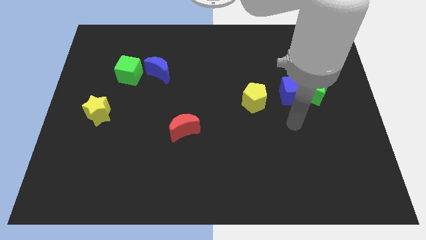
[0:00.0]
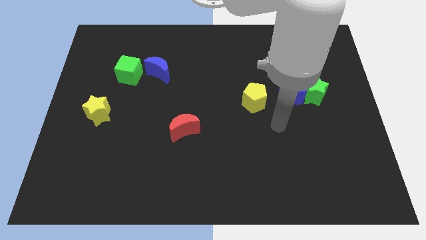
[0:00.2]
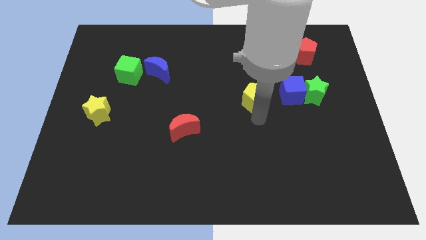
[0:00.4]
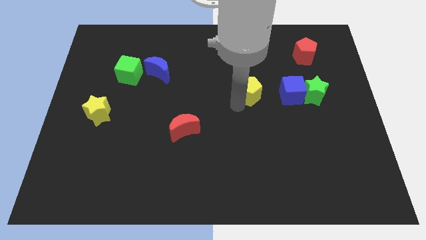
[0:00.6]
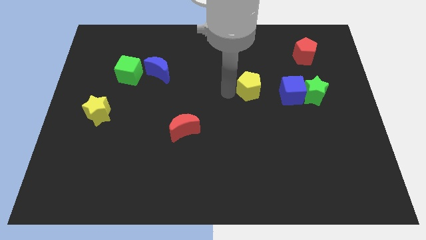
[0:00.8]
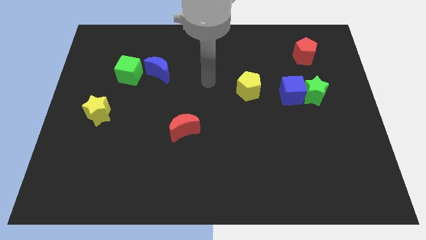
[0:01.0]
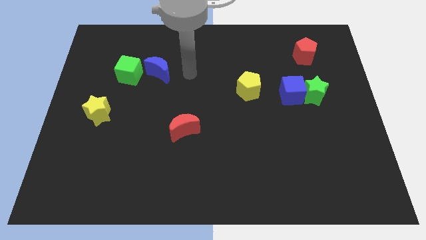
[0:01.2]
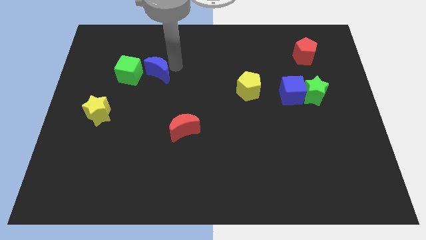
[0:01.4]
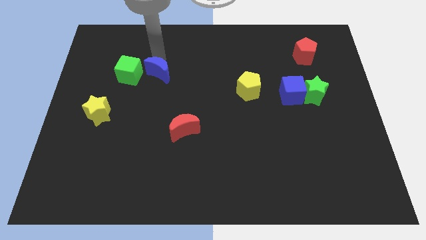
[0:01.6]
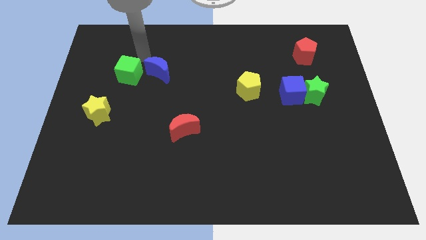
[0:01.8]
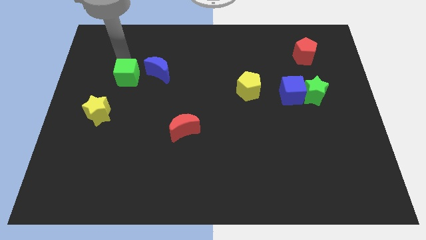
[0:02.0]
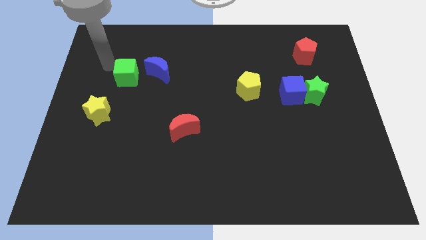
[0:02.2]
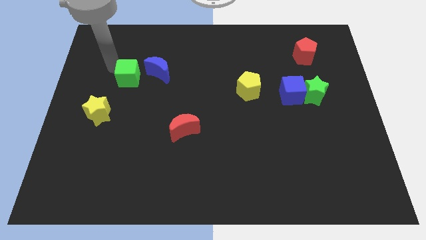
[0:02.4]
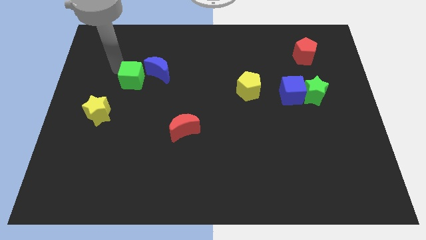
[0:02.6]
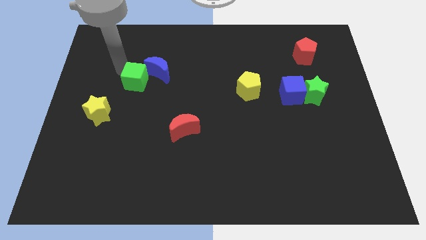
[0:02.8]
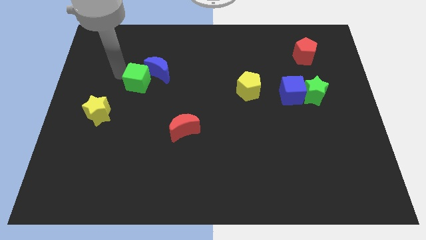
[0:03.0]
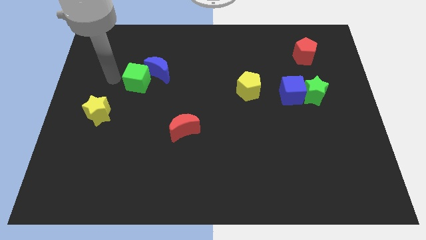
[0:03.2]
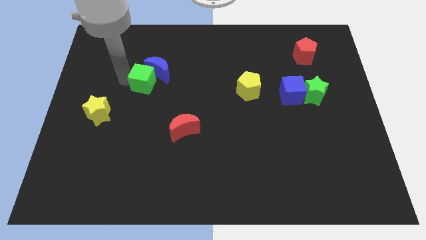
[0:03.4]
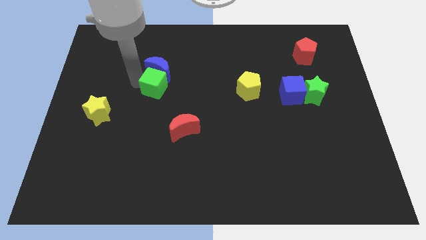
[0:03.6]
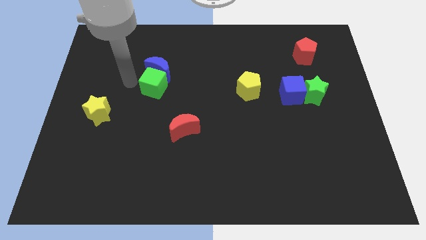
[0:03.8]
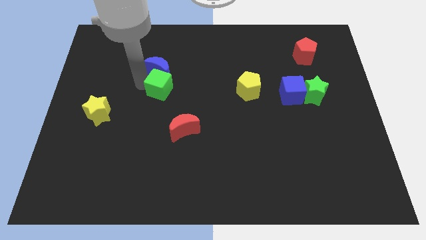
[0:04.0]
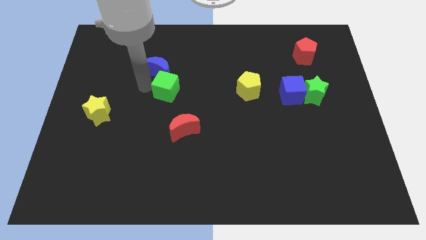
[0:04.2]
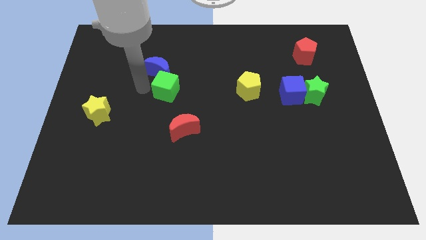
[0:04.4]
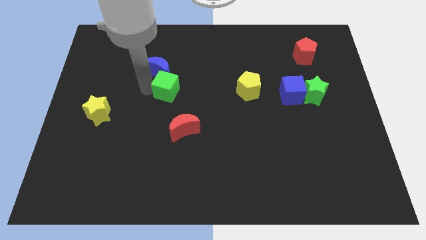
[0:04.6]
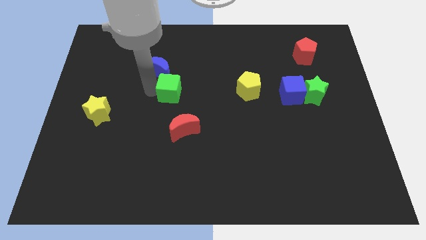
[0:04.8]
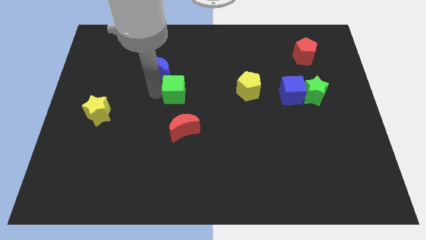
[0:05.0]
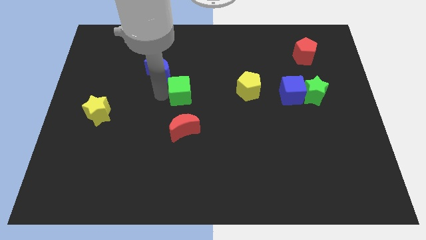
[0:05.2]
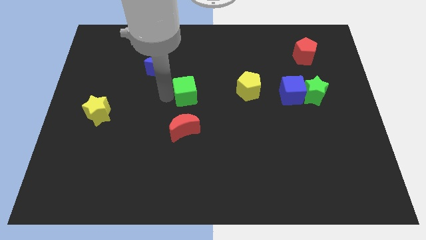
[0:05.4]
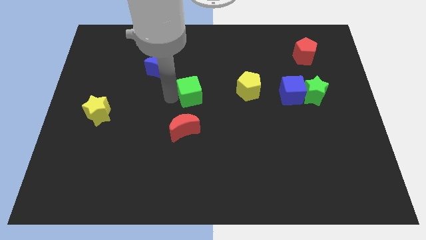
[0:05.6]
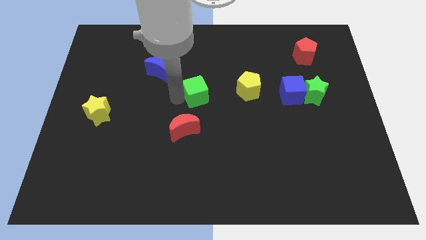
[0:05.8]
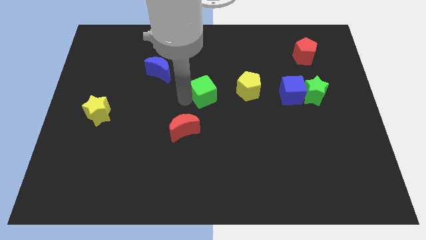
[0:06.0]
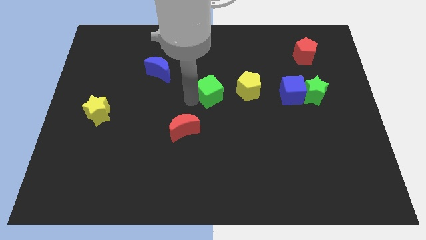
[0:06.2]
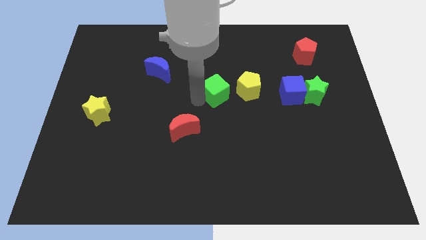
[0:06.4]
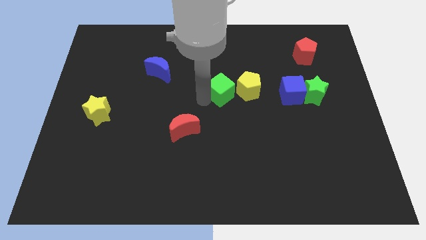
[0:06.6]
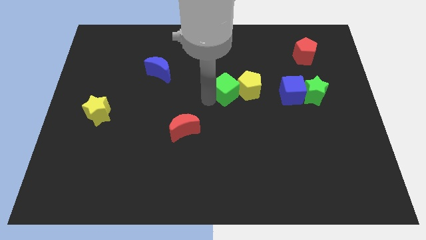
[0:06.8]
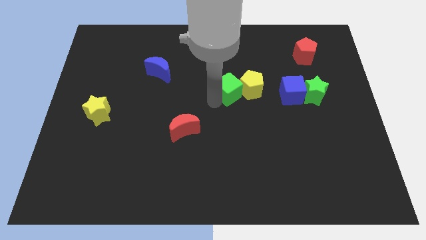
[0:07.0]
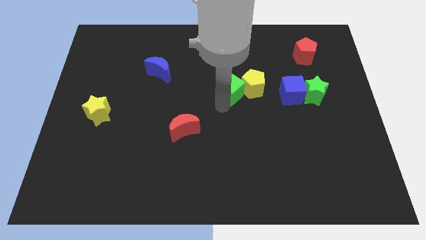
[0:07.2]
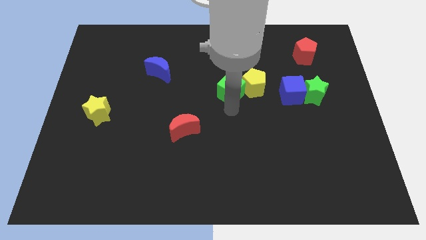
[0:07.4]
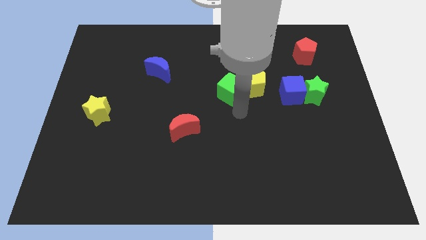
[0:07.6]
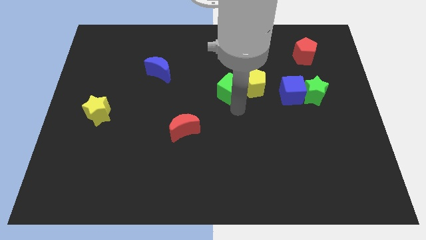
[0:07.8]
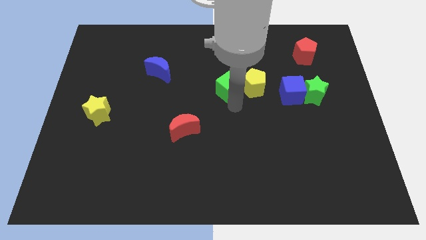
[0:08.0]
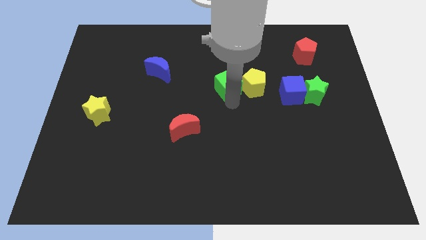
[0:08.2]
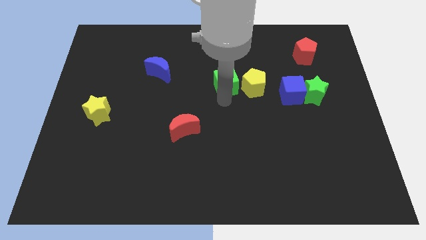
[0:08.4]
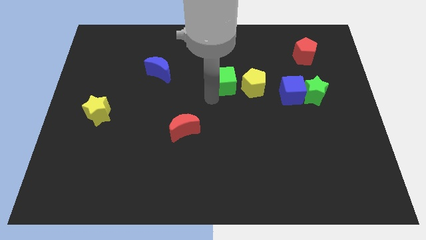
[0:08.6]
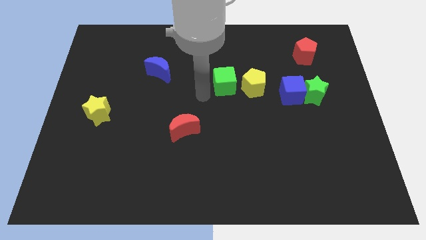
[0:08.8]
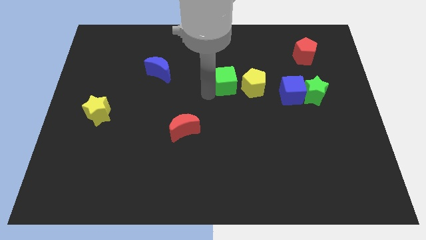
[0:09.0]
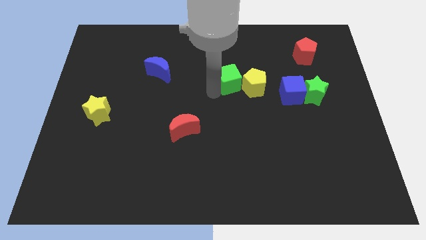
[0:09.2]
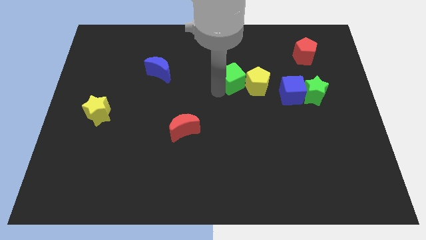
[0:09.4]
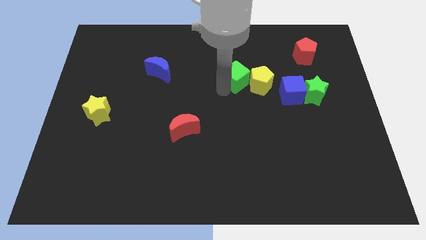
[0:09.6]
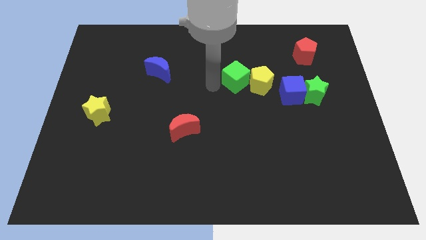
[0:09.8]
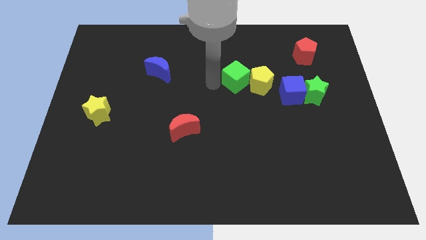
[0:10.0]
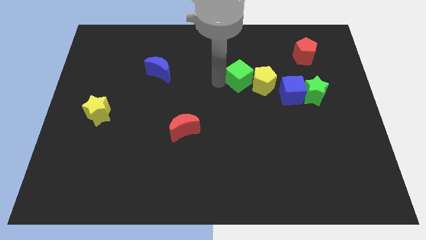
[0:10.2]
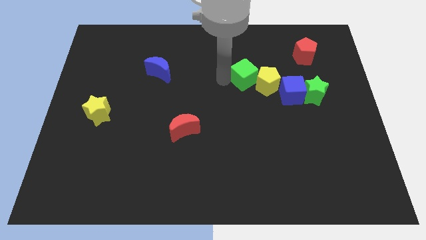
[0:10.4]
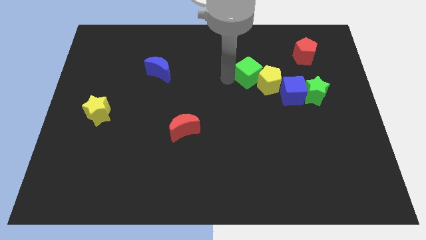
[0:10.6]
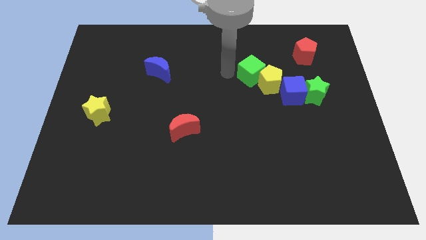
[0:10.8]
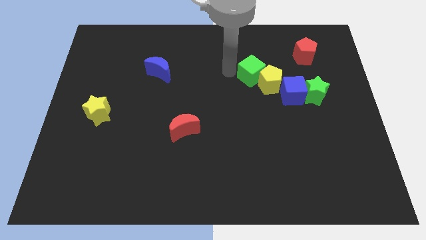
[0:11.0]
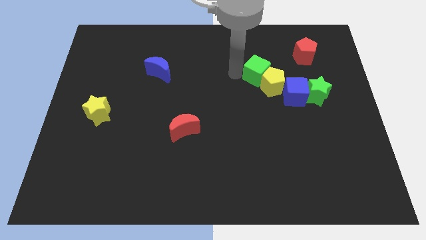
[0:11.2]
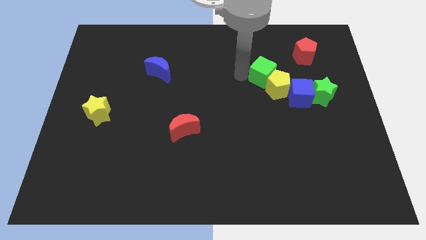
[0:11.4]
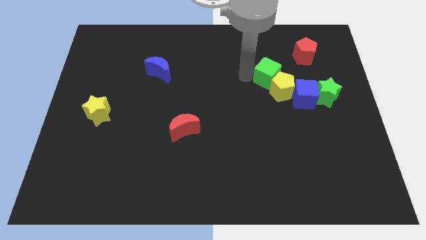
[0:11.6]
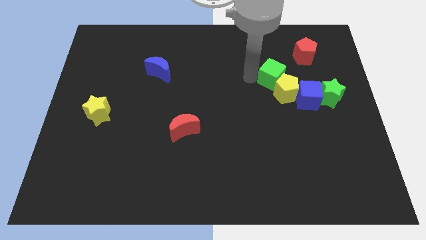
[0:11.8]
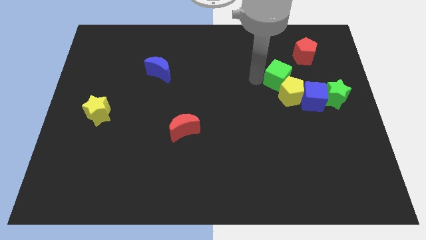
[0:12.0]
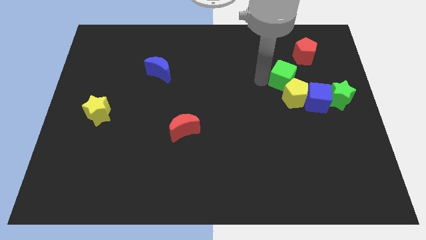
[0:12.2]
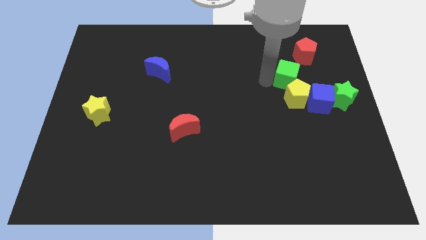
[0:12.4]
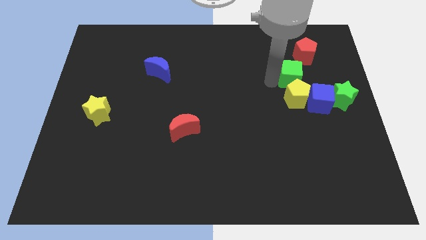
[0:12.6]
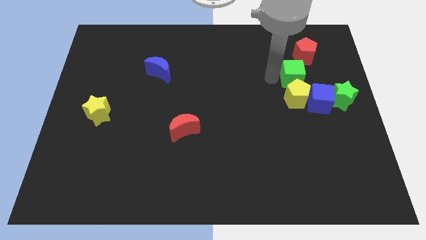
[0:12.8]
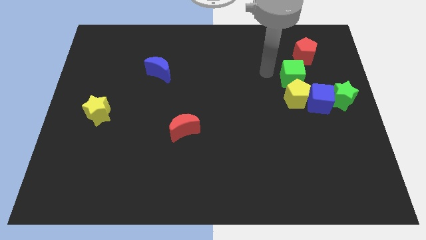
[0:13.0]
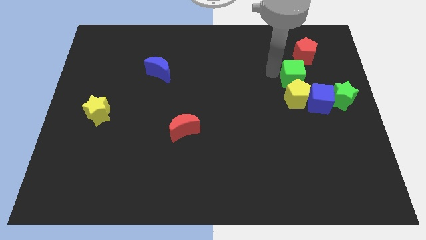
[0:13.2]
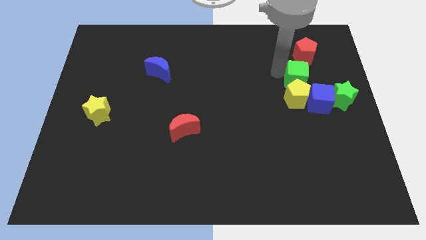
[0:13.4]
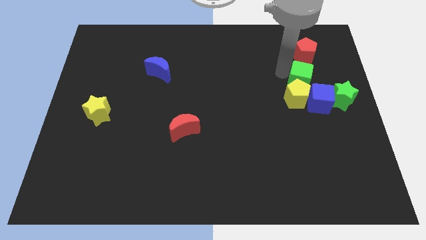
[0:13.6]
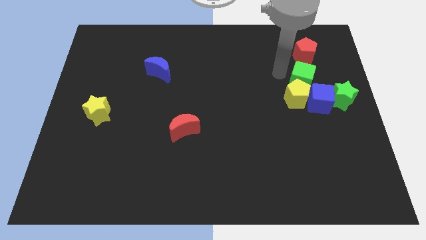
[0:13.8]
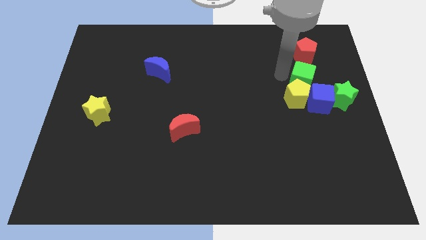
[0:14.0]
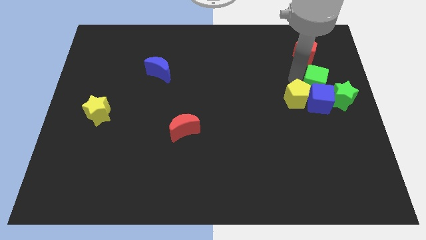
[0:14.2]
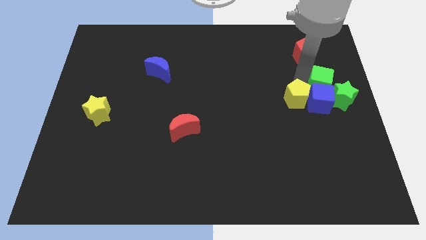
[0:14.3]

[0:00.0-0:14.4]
put the green cube to the right side
